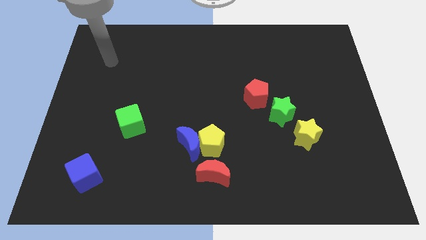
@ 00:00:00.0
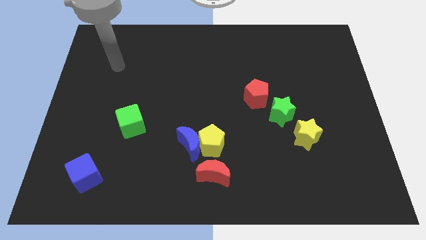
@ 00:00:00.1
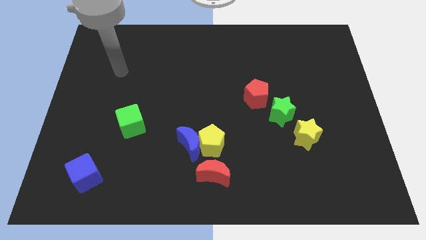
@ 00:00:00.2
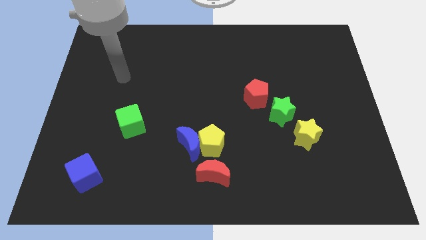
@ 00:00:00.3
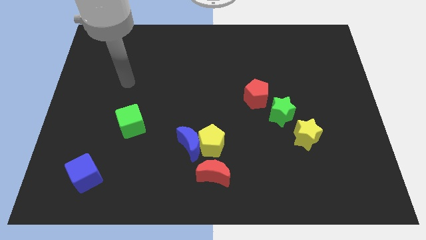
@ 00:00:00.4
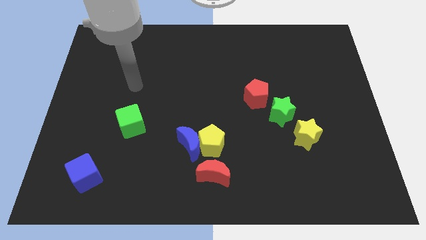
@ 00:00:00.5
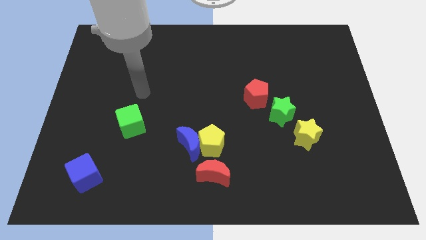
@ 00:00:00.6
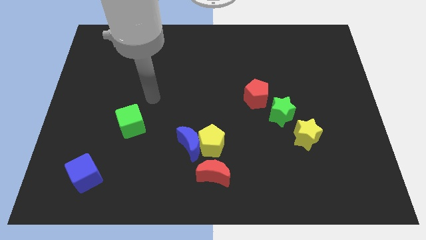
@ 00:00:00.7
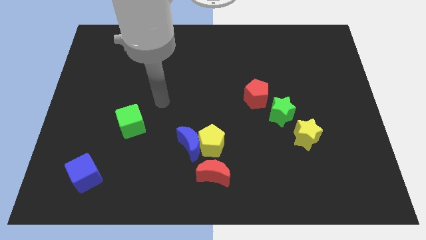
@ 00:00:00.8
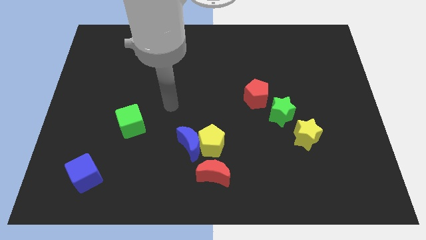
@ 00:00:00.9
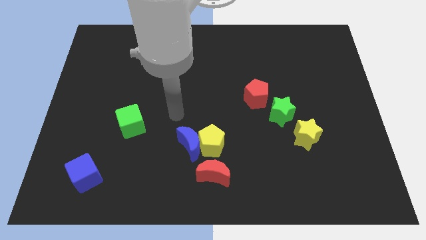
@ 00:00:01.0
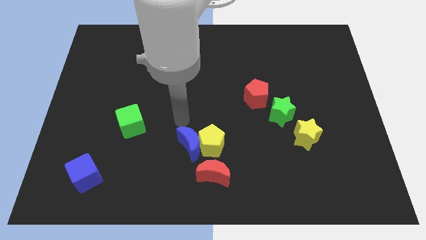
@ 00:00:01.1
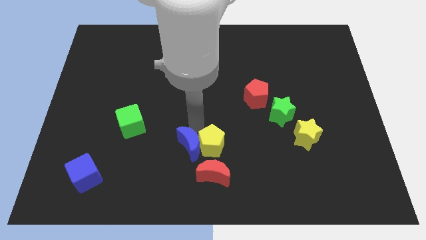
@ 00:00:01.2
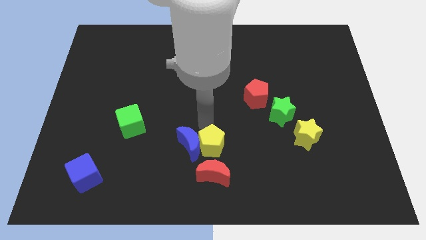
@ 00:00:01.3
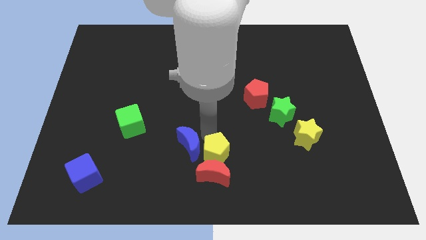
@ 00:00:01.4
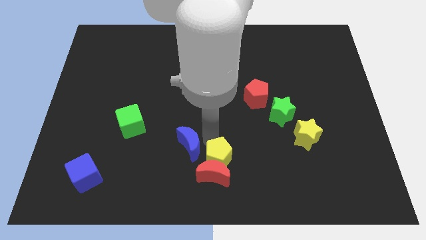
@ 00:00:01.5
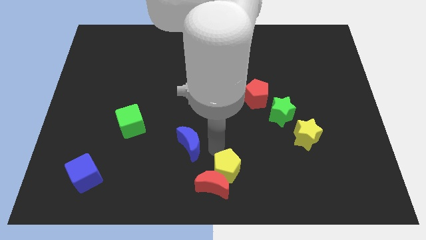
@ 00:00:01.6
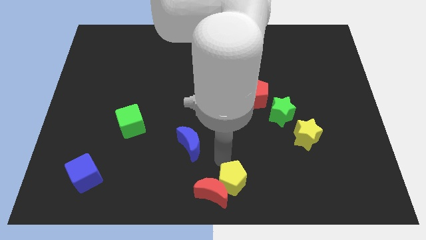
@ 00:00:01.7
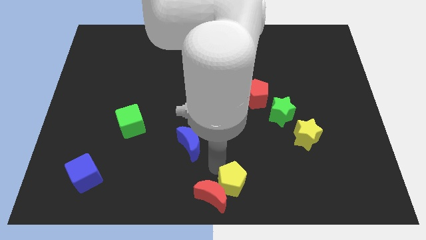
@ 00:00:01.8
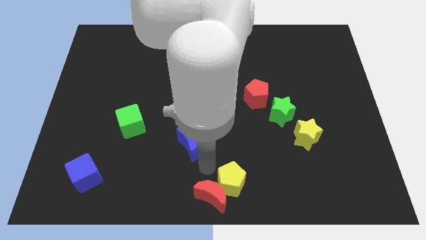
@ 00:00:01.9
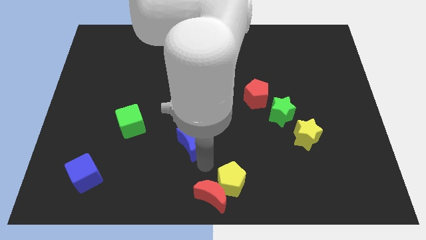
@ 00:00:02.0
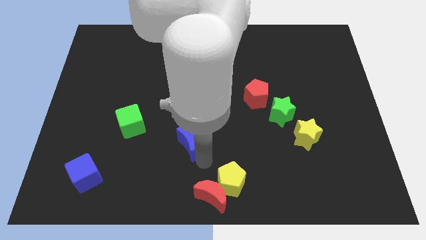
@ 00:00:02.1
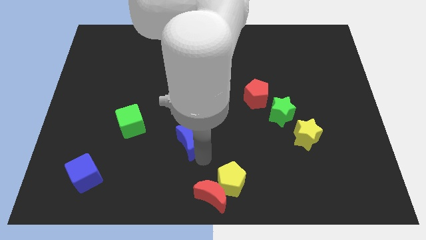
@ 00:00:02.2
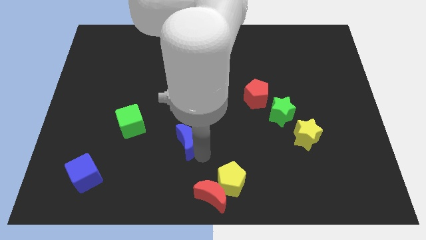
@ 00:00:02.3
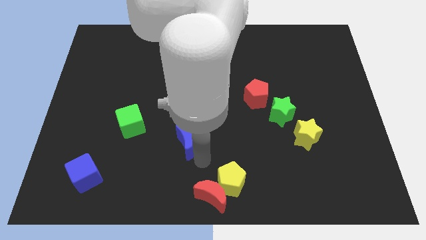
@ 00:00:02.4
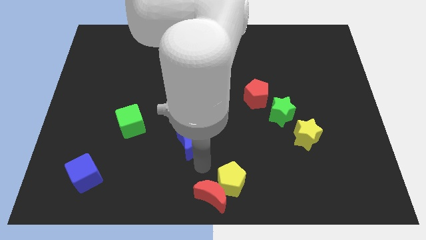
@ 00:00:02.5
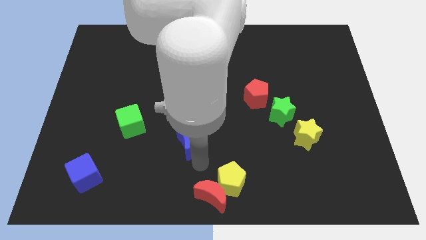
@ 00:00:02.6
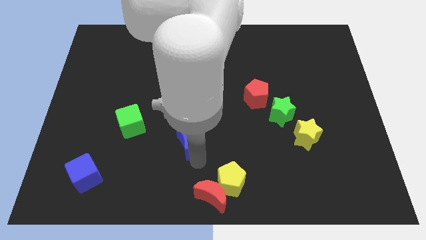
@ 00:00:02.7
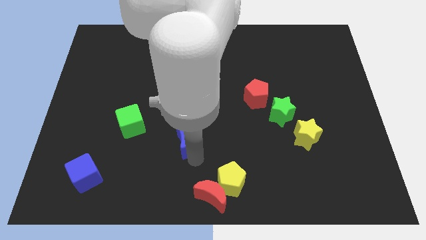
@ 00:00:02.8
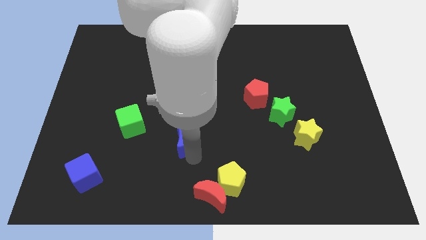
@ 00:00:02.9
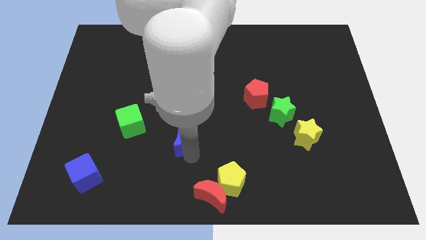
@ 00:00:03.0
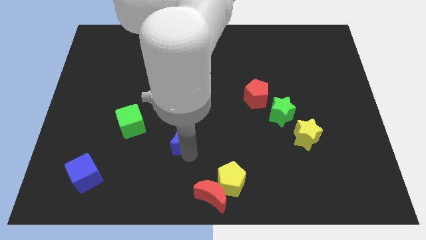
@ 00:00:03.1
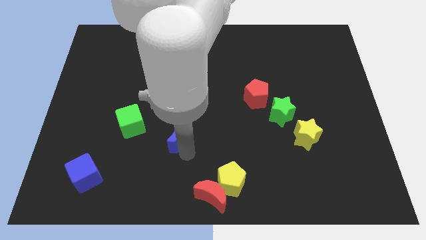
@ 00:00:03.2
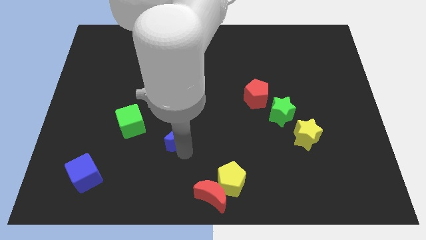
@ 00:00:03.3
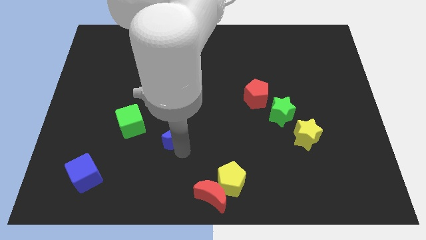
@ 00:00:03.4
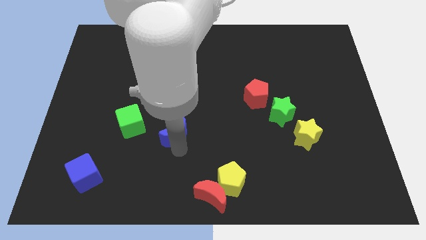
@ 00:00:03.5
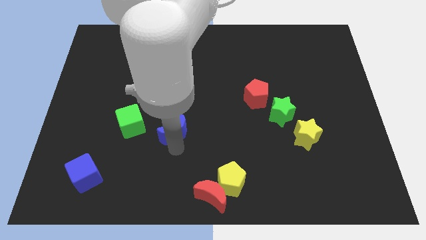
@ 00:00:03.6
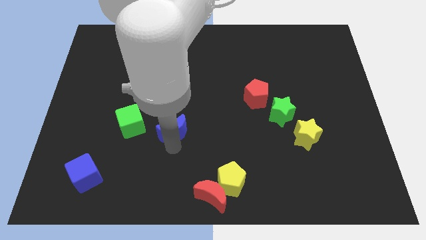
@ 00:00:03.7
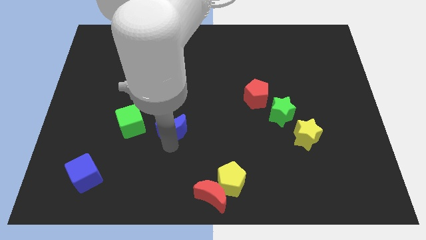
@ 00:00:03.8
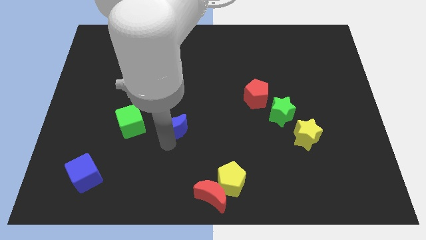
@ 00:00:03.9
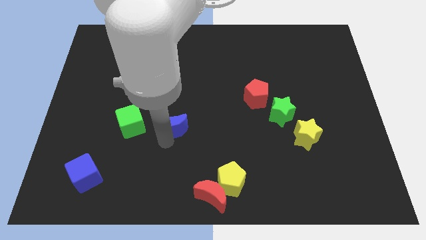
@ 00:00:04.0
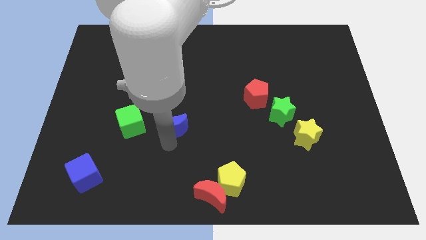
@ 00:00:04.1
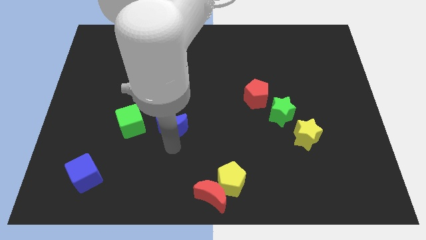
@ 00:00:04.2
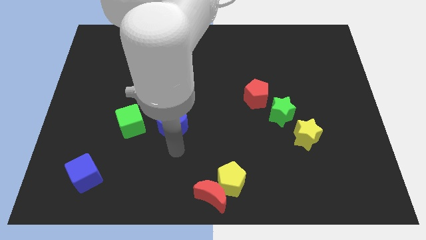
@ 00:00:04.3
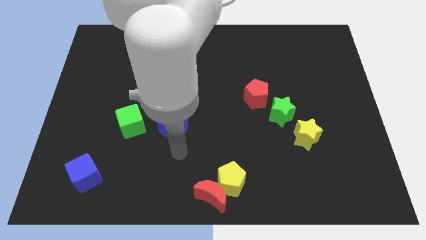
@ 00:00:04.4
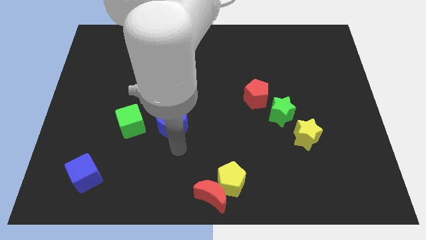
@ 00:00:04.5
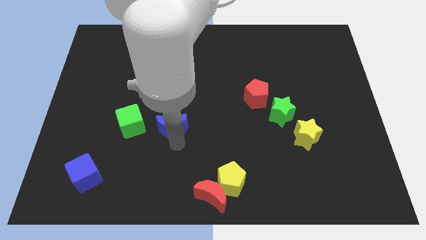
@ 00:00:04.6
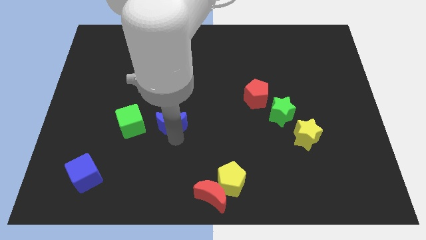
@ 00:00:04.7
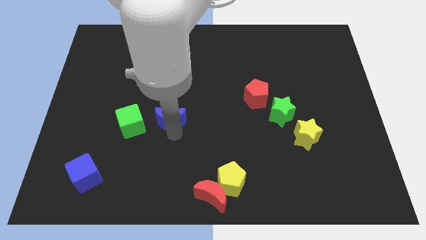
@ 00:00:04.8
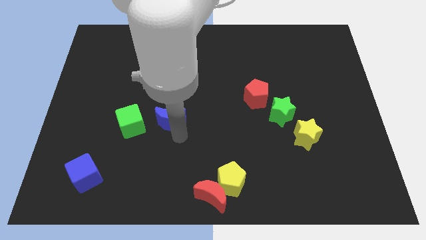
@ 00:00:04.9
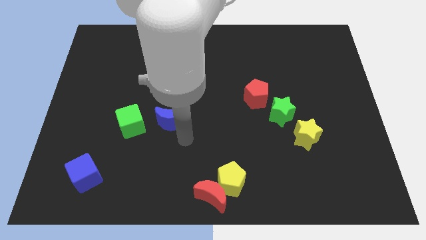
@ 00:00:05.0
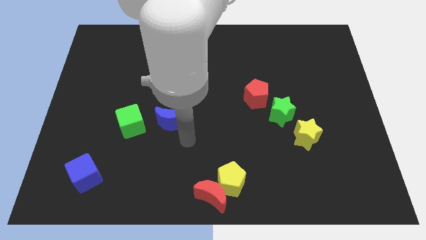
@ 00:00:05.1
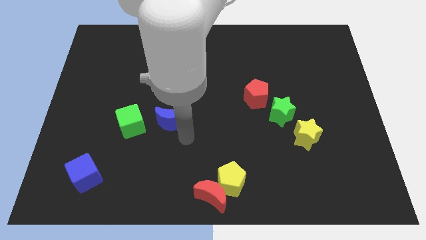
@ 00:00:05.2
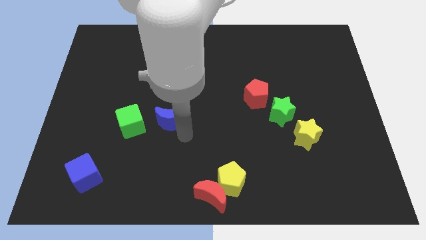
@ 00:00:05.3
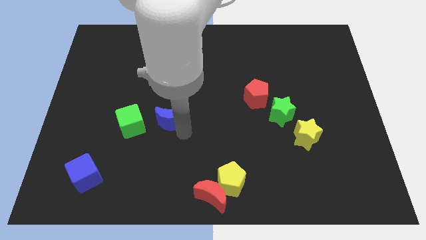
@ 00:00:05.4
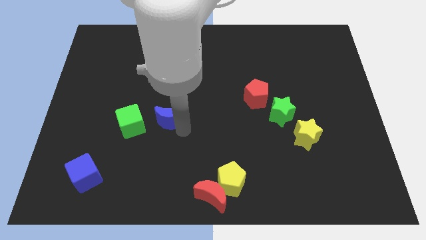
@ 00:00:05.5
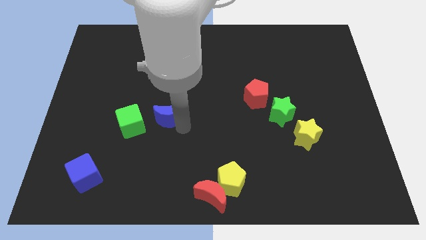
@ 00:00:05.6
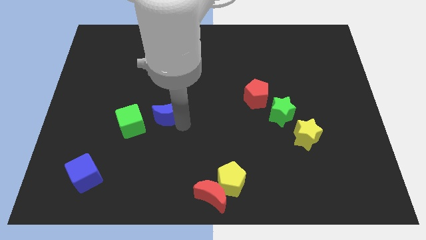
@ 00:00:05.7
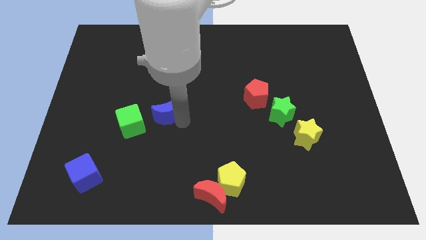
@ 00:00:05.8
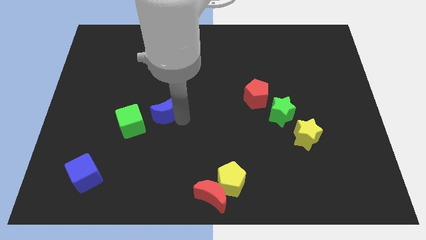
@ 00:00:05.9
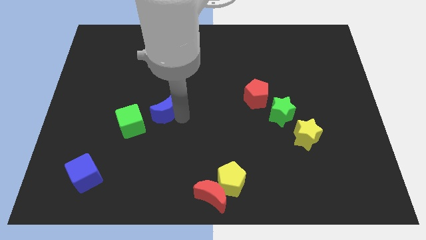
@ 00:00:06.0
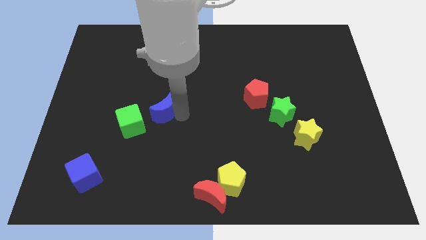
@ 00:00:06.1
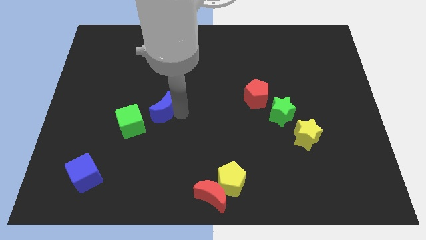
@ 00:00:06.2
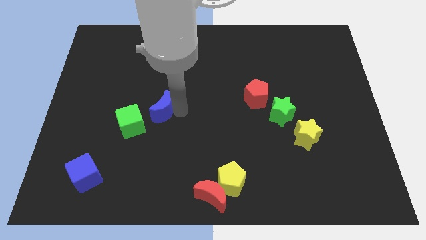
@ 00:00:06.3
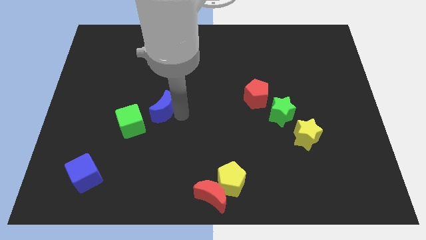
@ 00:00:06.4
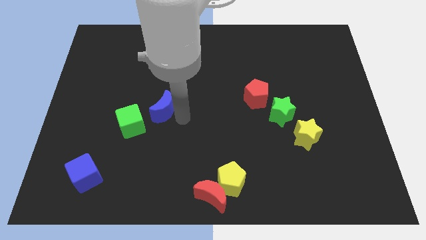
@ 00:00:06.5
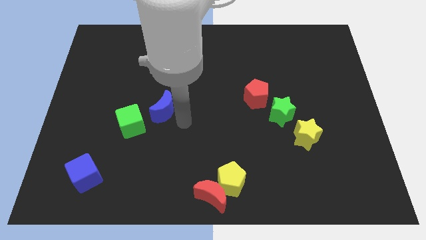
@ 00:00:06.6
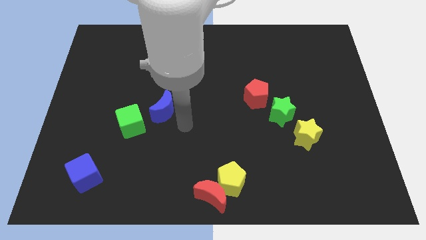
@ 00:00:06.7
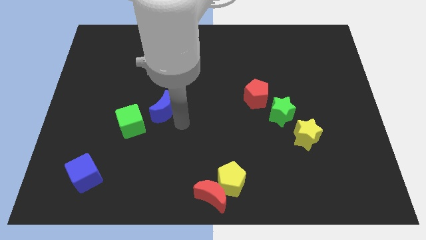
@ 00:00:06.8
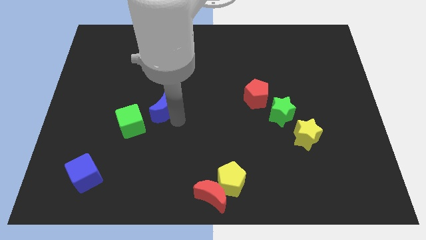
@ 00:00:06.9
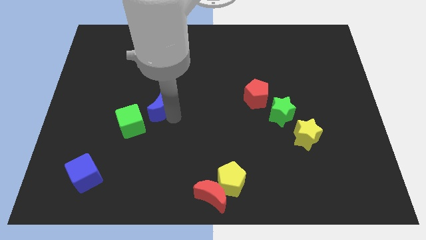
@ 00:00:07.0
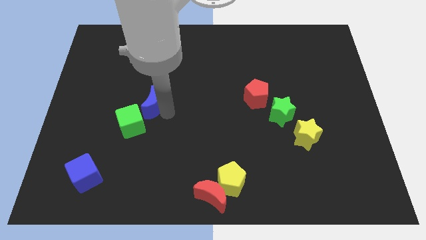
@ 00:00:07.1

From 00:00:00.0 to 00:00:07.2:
put the blue moon above the green cube
